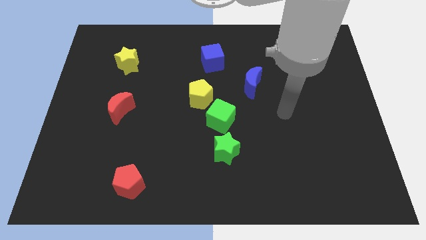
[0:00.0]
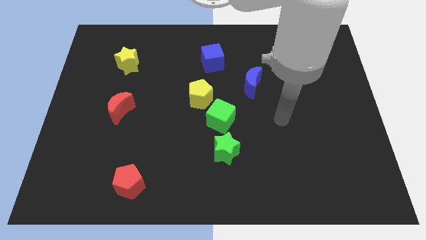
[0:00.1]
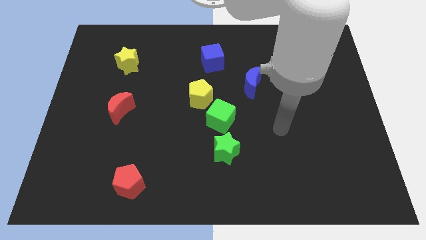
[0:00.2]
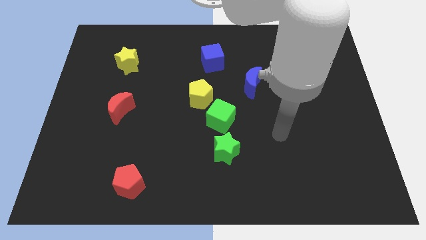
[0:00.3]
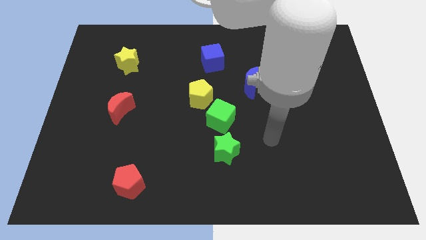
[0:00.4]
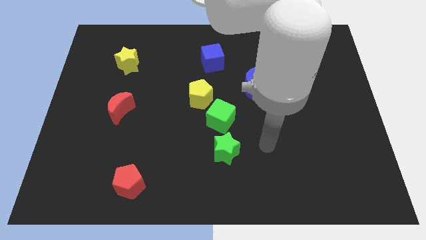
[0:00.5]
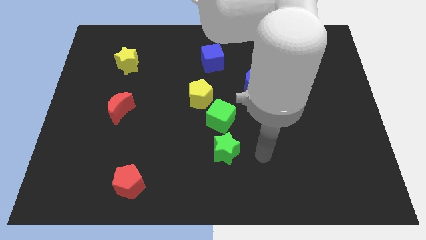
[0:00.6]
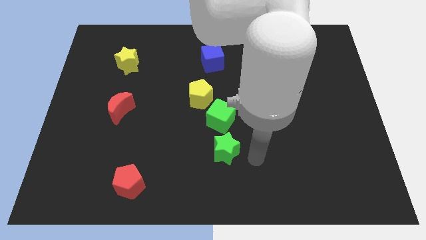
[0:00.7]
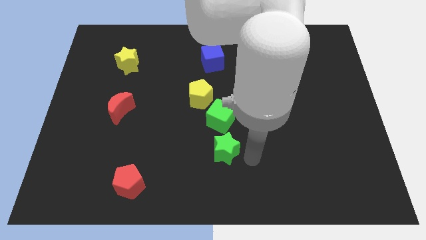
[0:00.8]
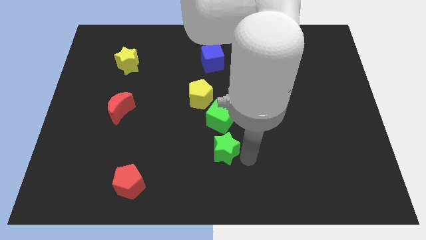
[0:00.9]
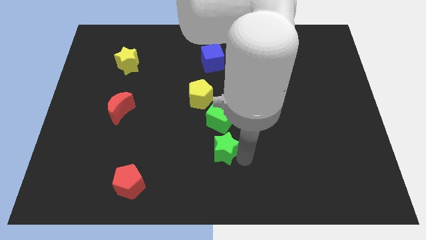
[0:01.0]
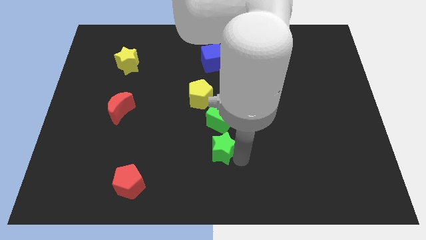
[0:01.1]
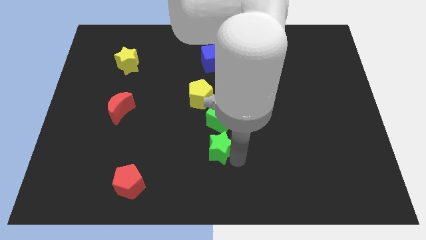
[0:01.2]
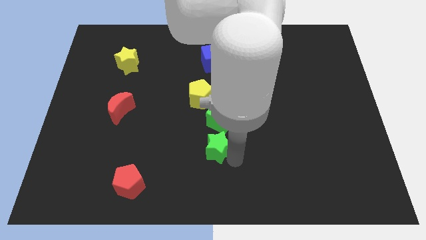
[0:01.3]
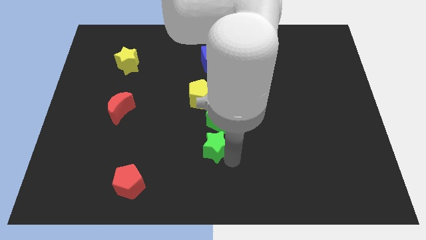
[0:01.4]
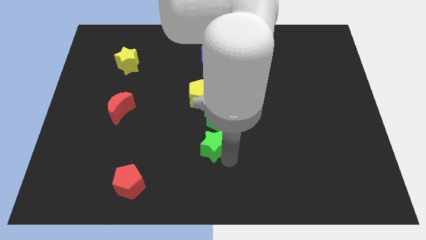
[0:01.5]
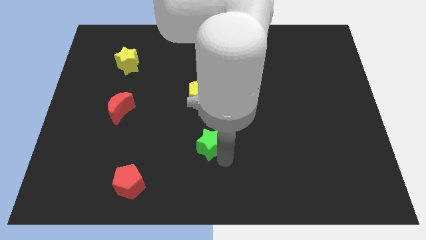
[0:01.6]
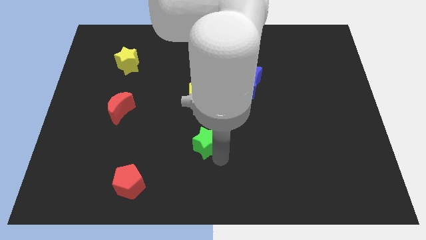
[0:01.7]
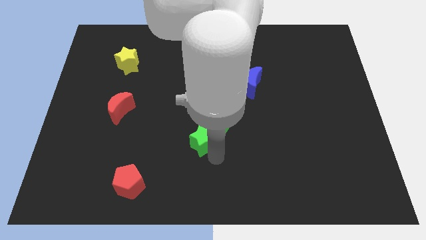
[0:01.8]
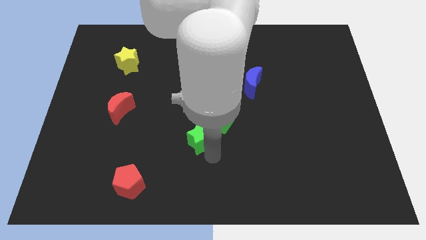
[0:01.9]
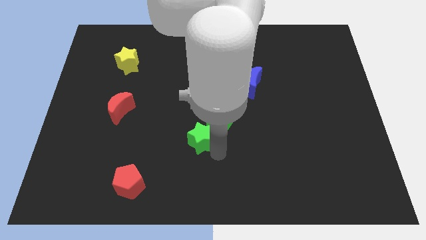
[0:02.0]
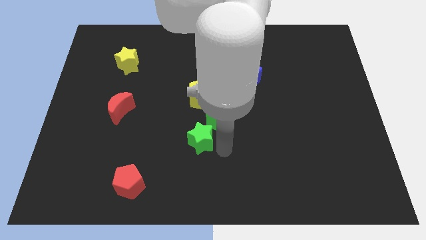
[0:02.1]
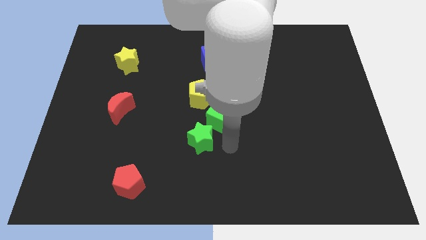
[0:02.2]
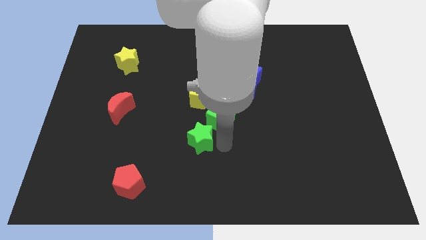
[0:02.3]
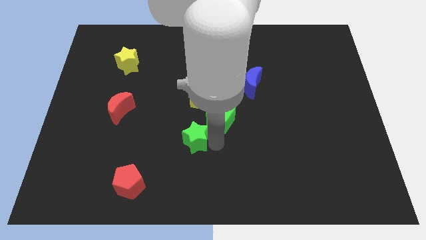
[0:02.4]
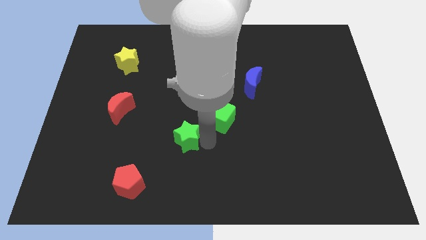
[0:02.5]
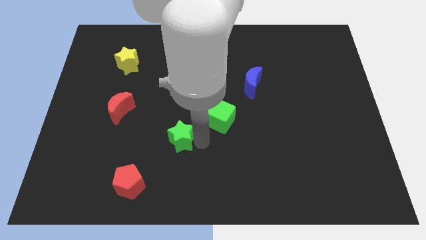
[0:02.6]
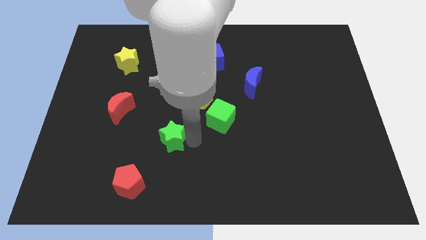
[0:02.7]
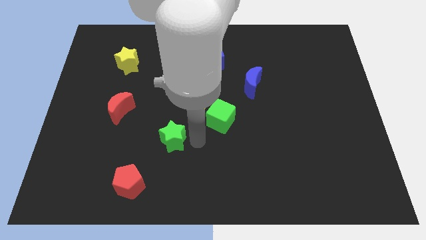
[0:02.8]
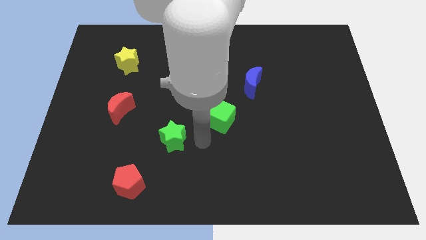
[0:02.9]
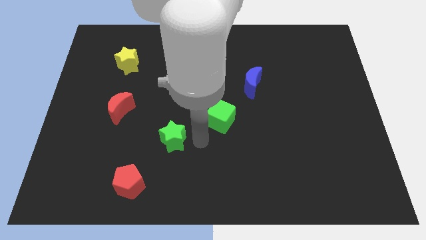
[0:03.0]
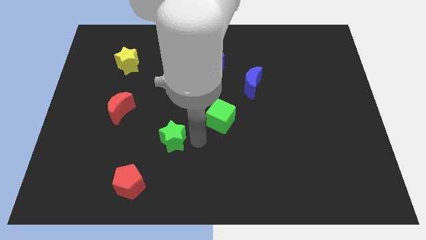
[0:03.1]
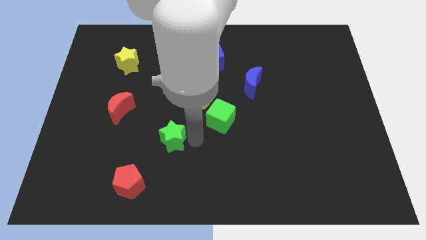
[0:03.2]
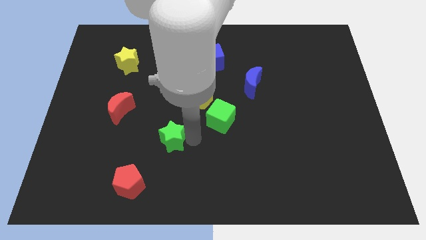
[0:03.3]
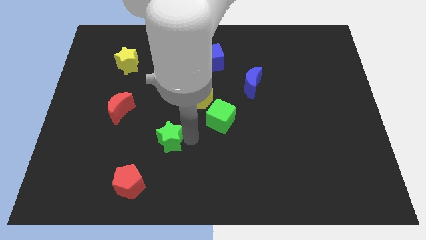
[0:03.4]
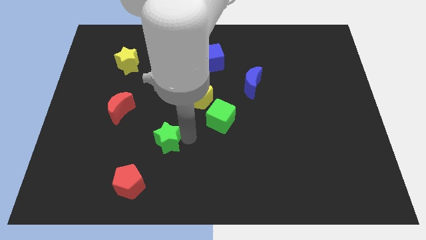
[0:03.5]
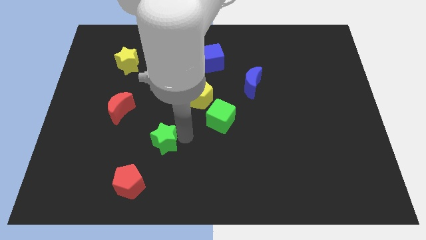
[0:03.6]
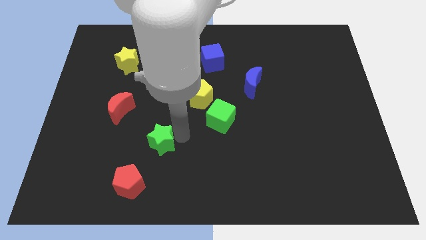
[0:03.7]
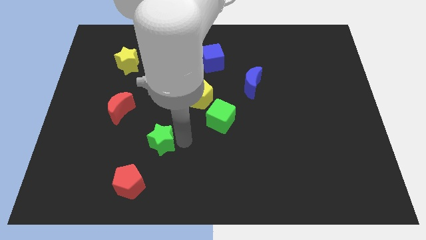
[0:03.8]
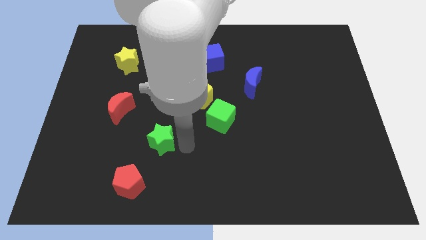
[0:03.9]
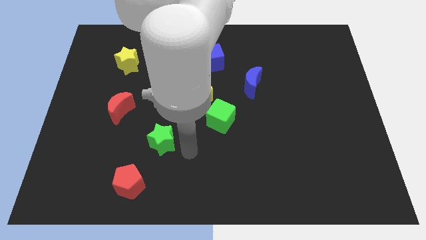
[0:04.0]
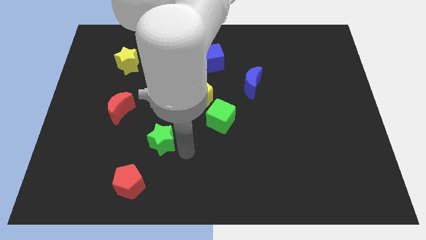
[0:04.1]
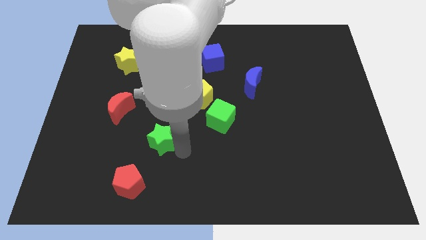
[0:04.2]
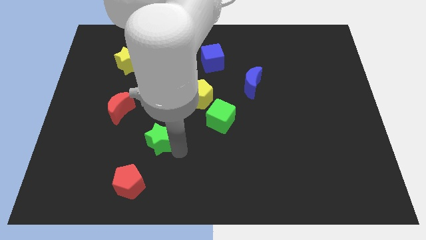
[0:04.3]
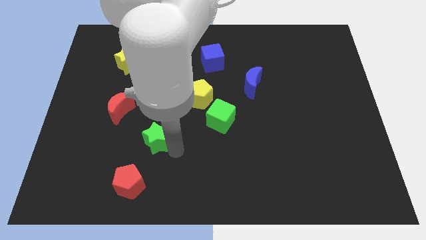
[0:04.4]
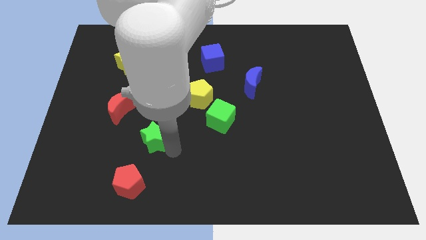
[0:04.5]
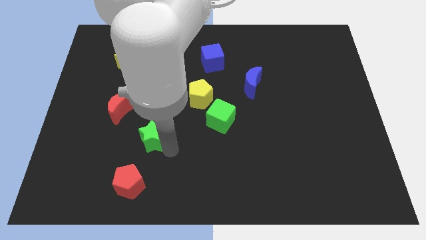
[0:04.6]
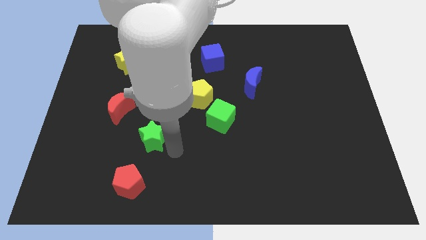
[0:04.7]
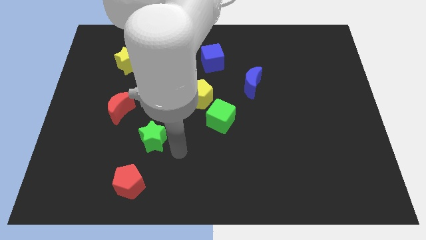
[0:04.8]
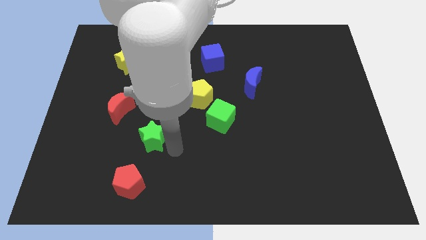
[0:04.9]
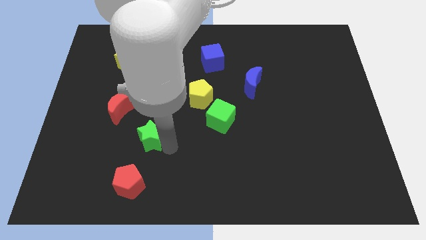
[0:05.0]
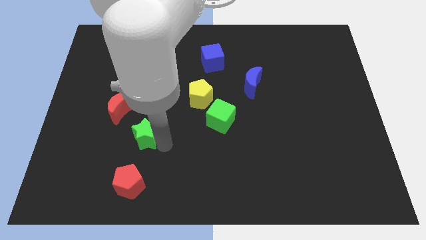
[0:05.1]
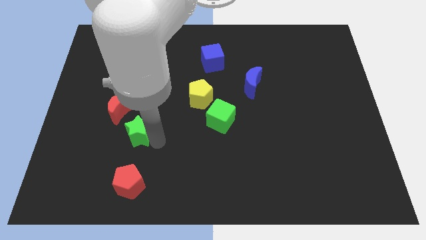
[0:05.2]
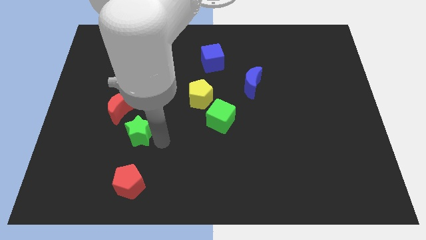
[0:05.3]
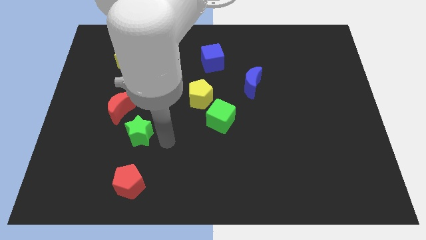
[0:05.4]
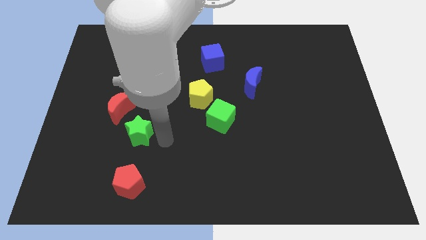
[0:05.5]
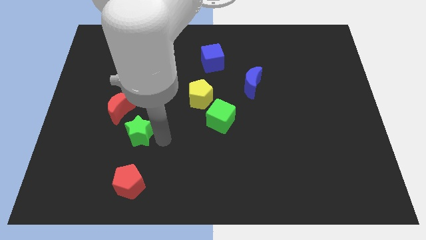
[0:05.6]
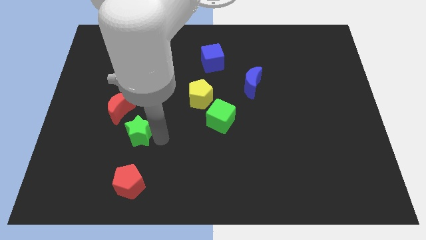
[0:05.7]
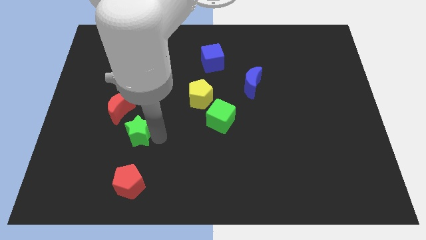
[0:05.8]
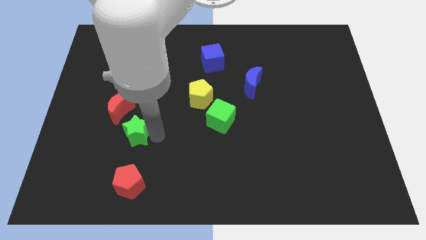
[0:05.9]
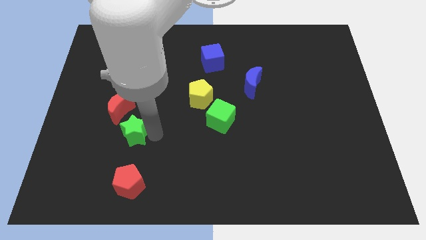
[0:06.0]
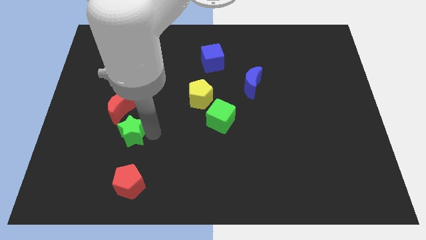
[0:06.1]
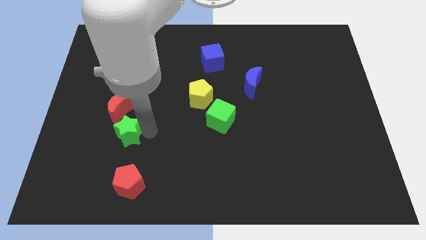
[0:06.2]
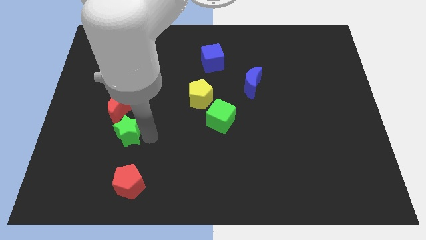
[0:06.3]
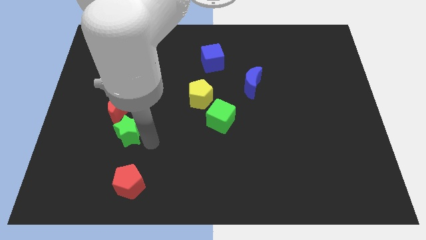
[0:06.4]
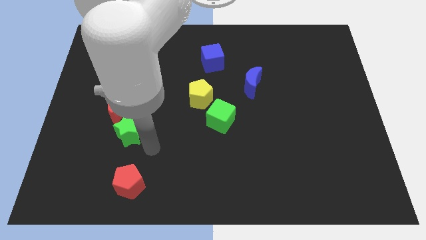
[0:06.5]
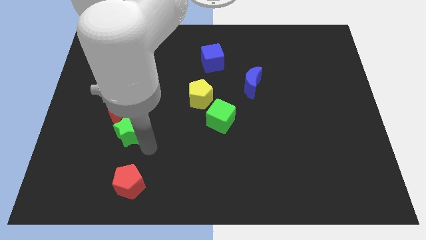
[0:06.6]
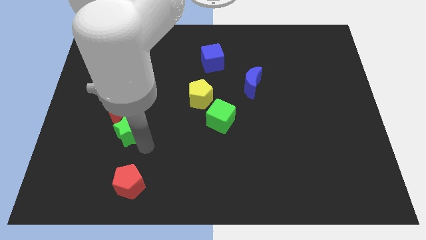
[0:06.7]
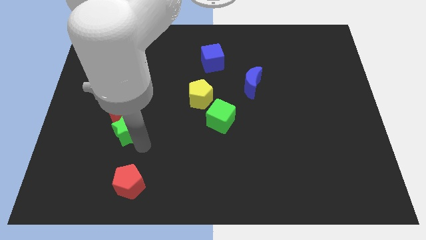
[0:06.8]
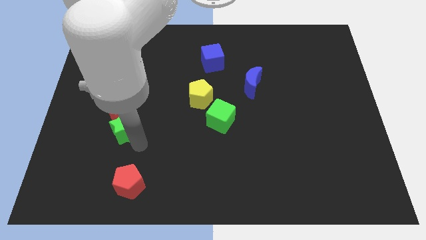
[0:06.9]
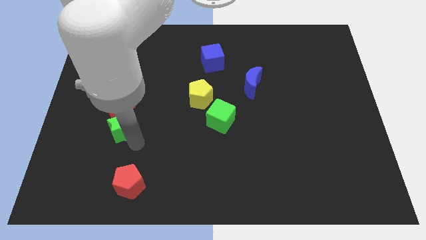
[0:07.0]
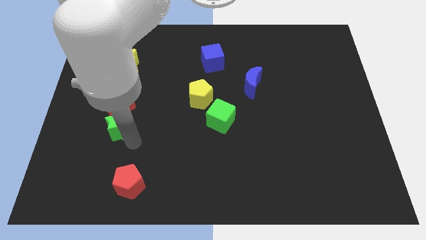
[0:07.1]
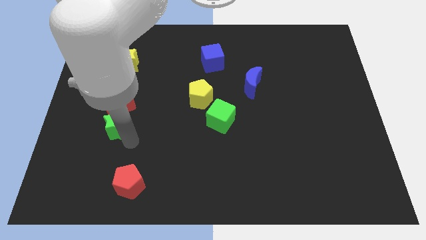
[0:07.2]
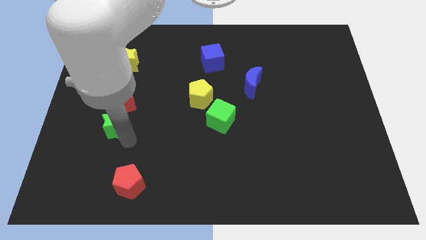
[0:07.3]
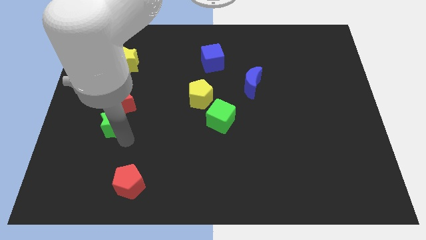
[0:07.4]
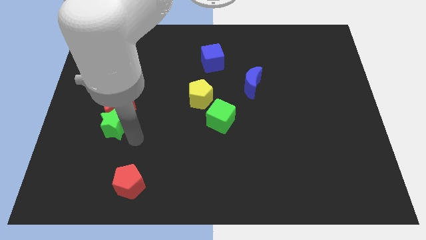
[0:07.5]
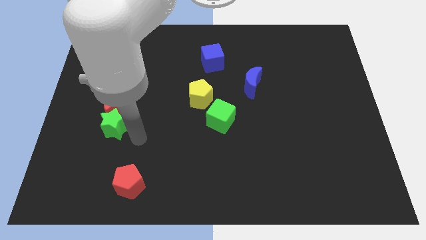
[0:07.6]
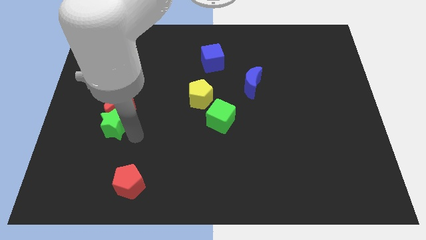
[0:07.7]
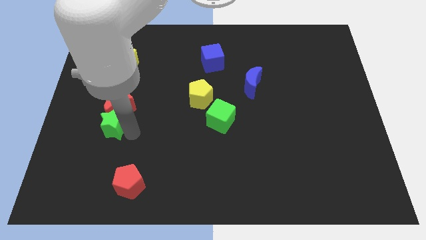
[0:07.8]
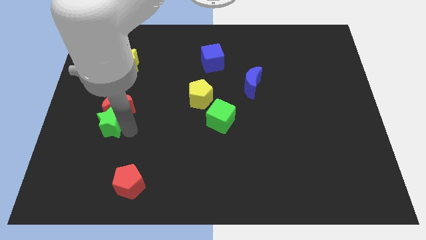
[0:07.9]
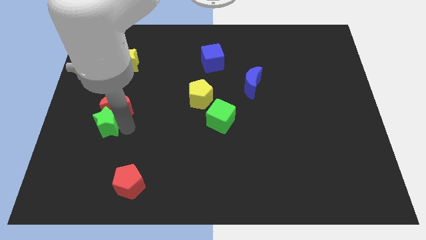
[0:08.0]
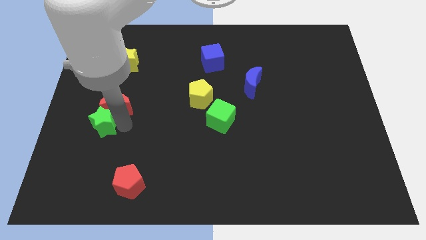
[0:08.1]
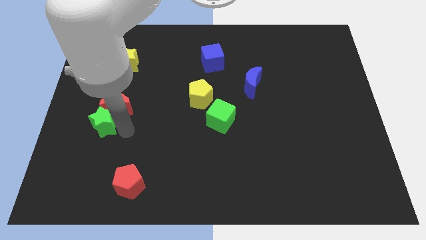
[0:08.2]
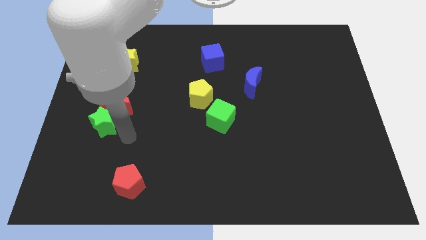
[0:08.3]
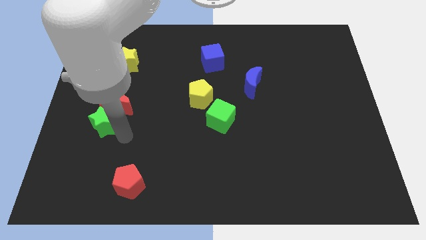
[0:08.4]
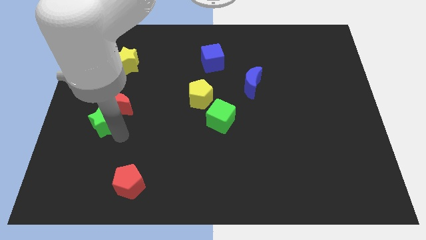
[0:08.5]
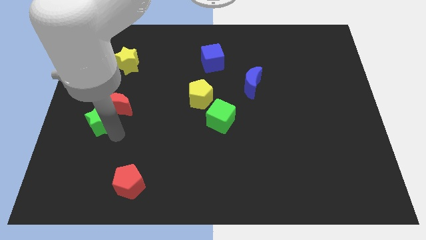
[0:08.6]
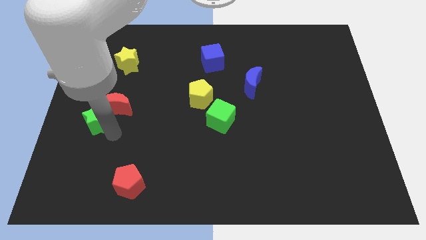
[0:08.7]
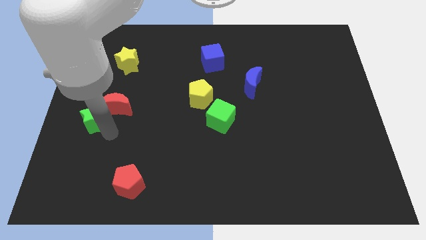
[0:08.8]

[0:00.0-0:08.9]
push the green star to the left side
